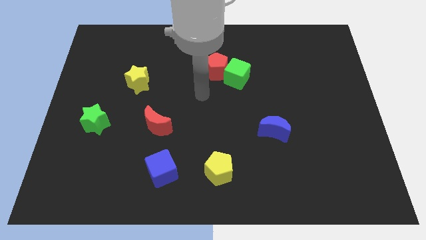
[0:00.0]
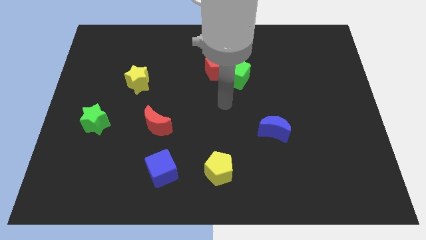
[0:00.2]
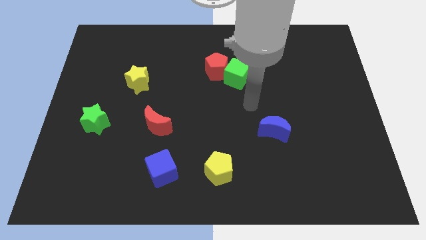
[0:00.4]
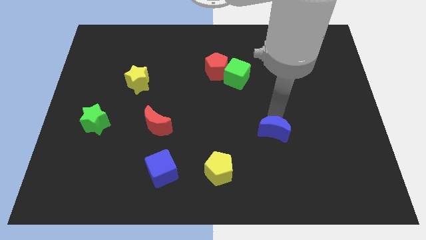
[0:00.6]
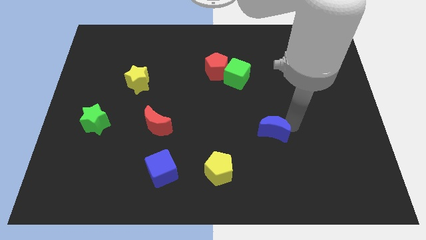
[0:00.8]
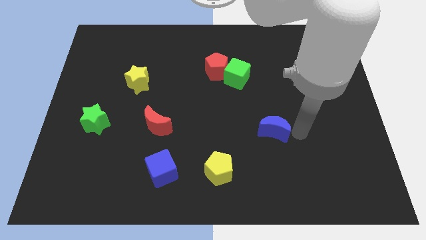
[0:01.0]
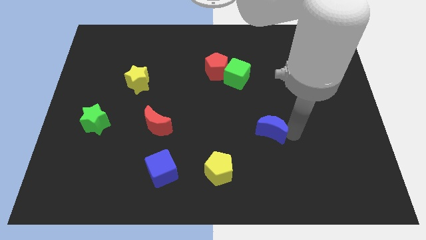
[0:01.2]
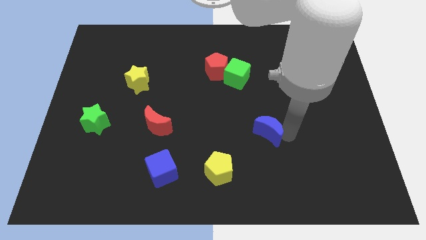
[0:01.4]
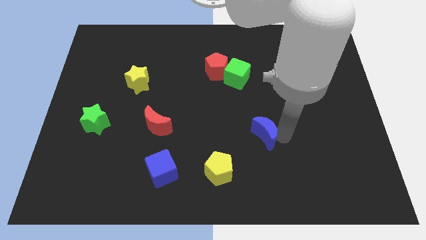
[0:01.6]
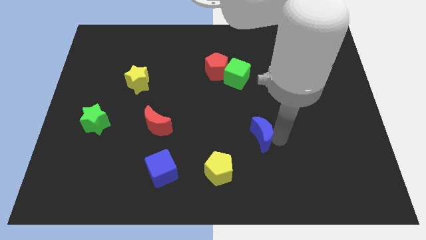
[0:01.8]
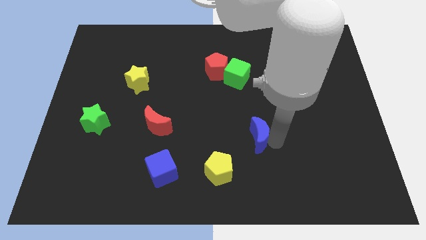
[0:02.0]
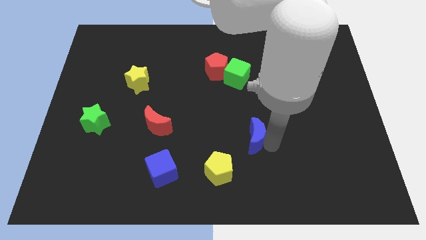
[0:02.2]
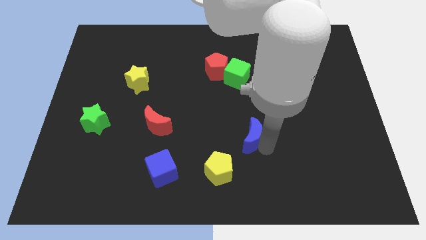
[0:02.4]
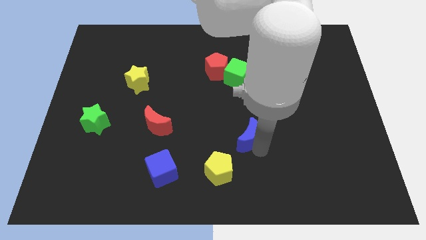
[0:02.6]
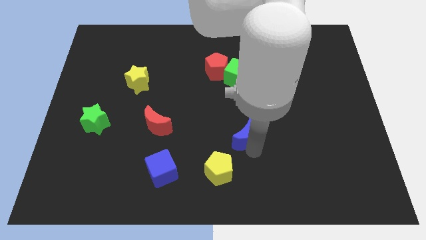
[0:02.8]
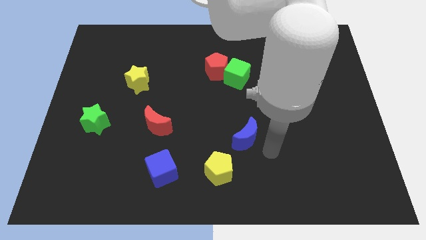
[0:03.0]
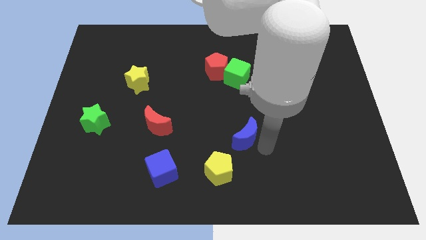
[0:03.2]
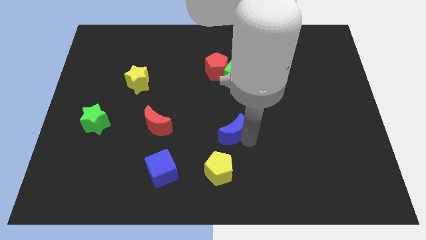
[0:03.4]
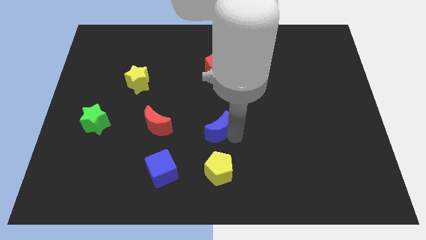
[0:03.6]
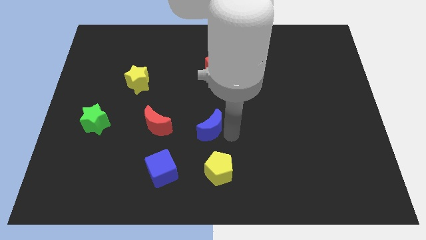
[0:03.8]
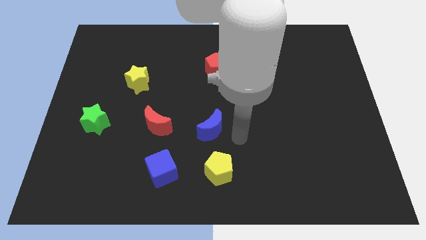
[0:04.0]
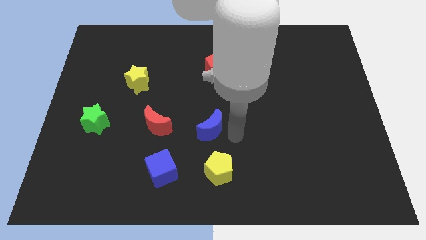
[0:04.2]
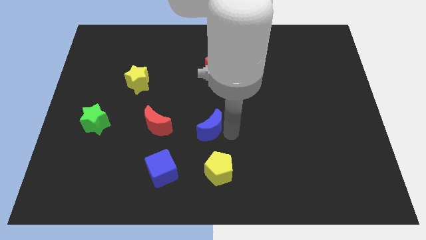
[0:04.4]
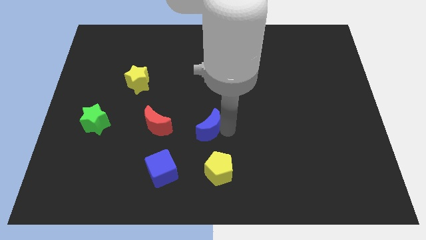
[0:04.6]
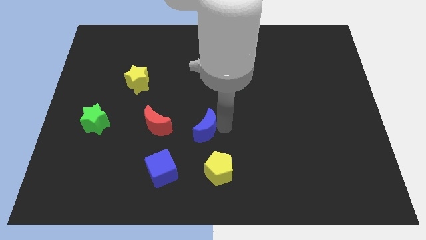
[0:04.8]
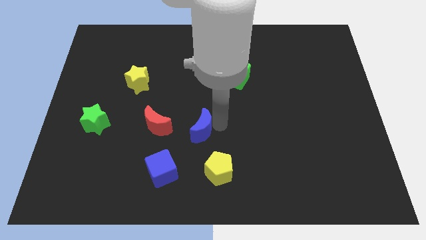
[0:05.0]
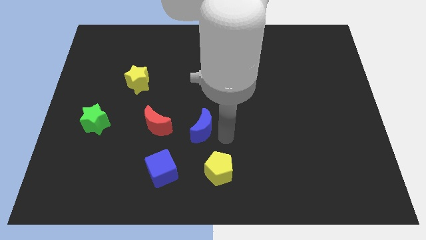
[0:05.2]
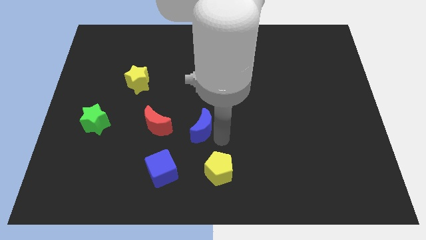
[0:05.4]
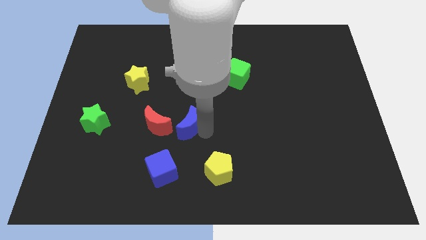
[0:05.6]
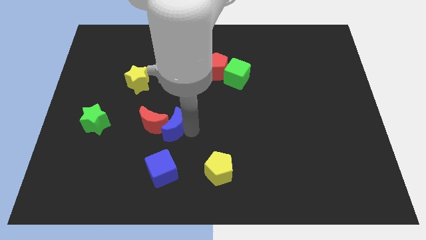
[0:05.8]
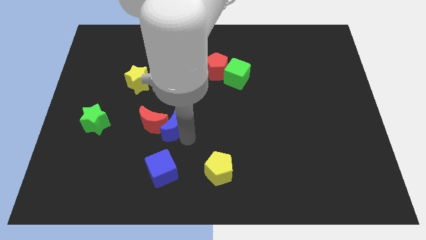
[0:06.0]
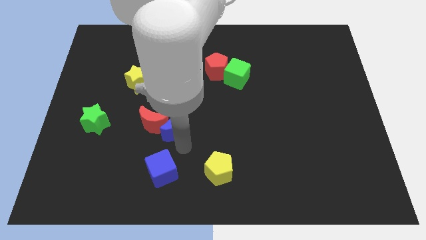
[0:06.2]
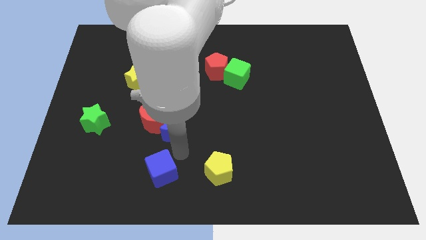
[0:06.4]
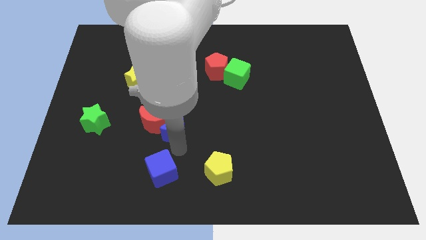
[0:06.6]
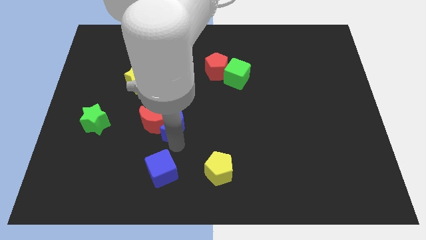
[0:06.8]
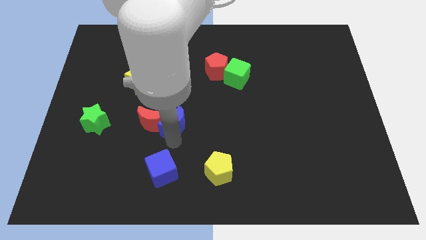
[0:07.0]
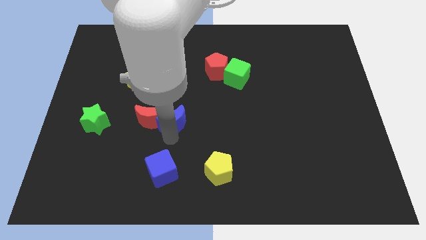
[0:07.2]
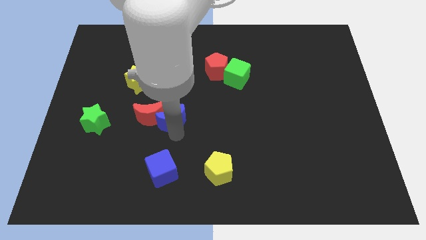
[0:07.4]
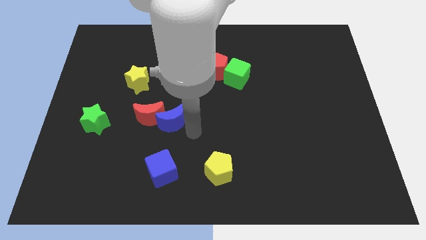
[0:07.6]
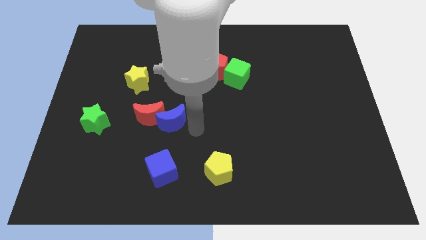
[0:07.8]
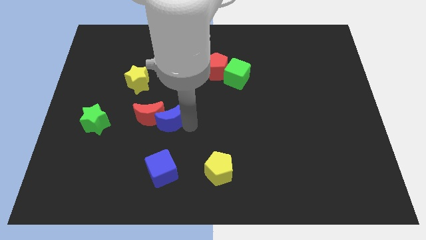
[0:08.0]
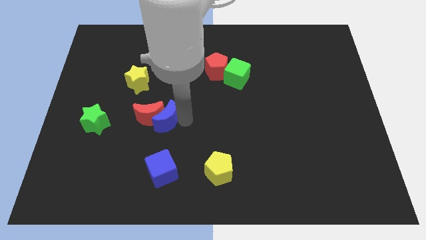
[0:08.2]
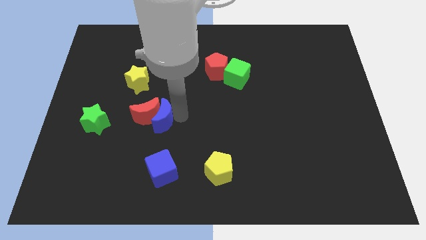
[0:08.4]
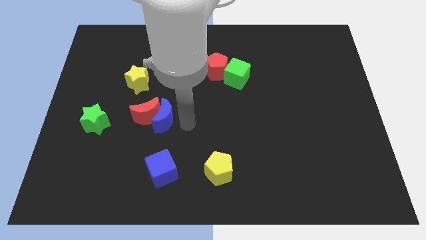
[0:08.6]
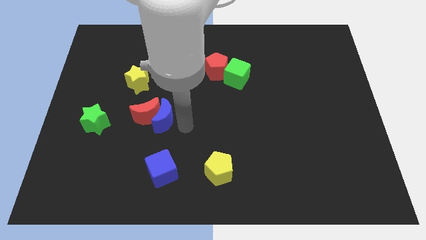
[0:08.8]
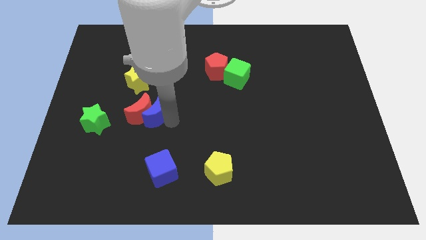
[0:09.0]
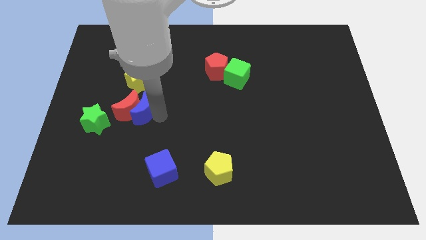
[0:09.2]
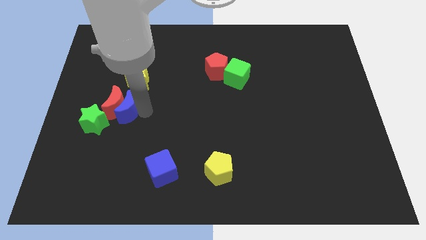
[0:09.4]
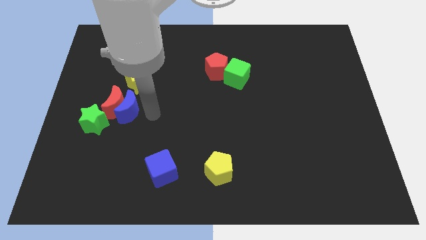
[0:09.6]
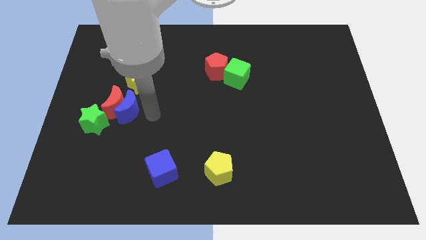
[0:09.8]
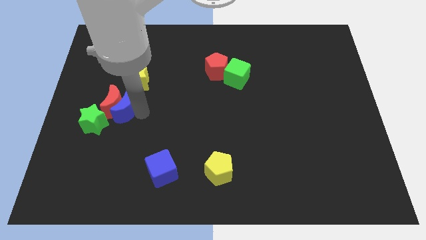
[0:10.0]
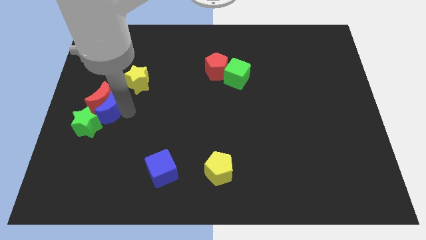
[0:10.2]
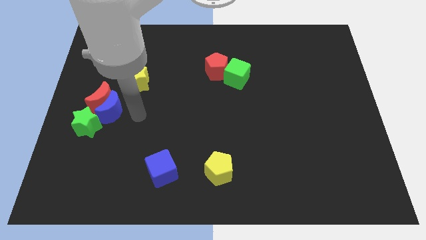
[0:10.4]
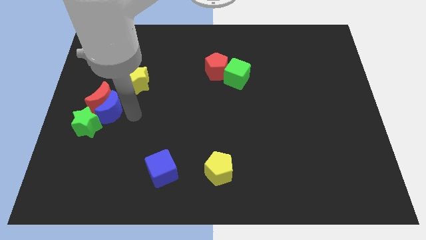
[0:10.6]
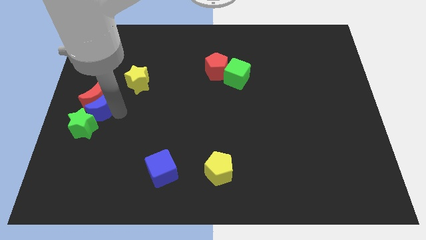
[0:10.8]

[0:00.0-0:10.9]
move the blue moon to the left side

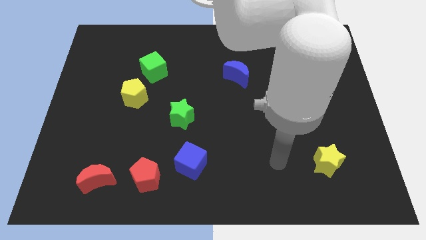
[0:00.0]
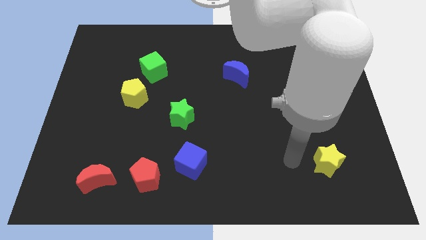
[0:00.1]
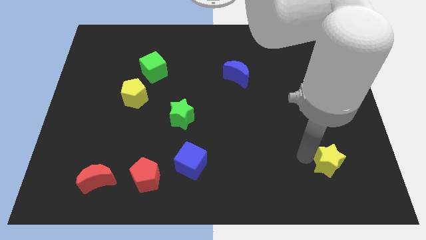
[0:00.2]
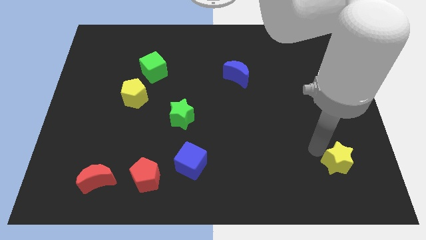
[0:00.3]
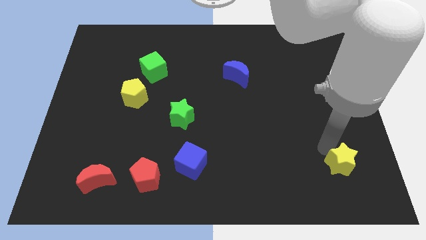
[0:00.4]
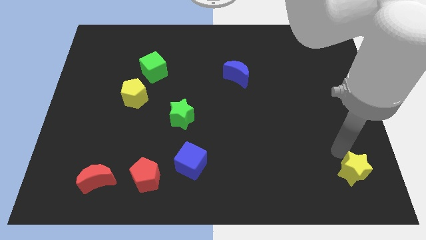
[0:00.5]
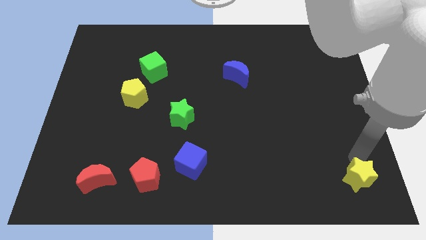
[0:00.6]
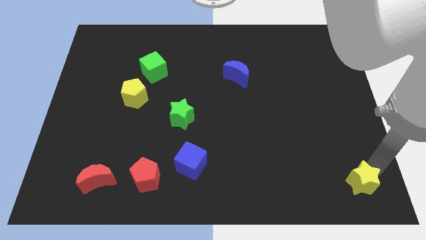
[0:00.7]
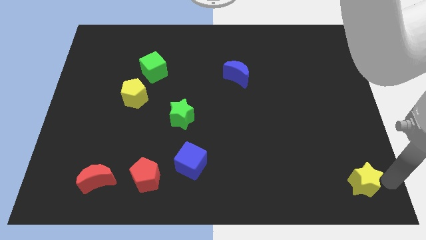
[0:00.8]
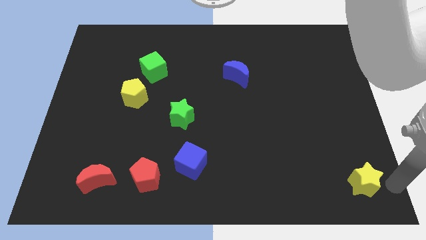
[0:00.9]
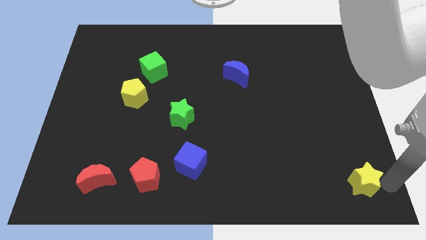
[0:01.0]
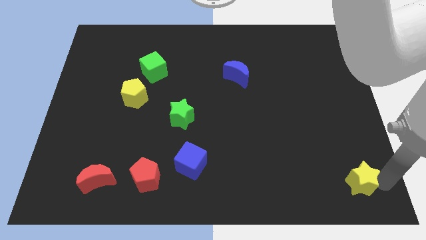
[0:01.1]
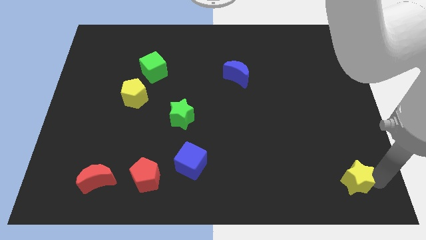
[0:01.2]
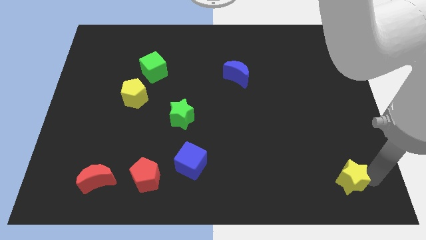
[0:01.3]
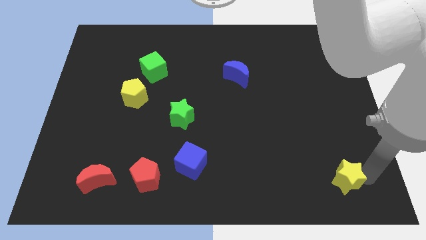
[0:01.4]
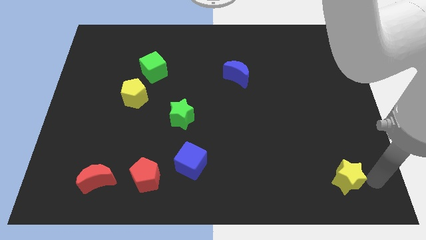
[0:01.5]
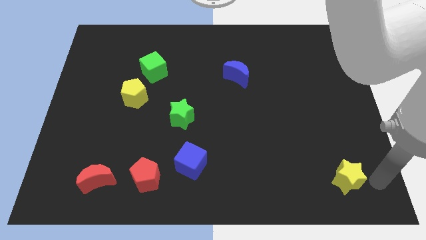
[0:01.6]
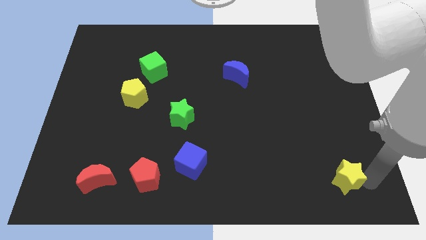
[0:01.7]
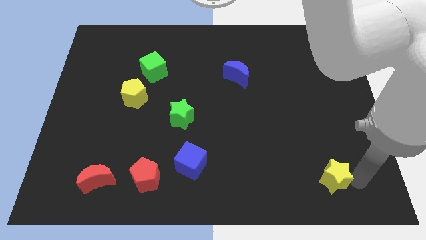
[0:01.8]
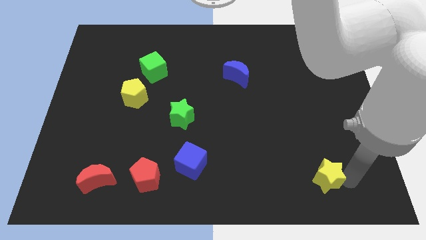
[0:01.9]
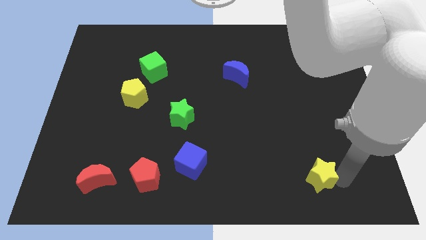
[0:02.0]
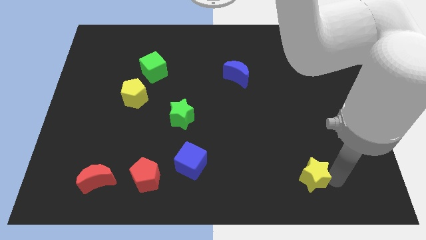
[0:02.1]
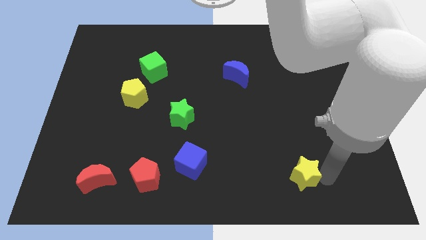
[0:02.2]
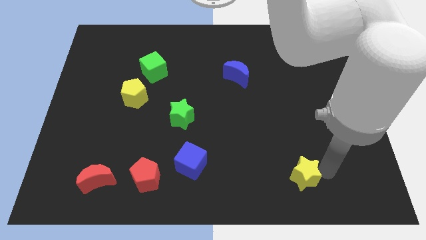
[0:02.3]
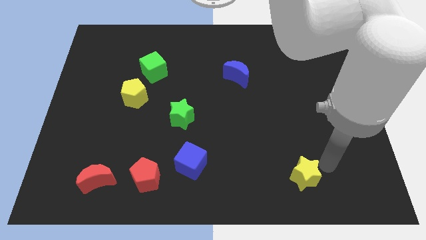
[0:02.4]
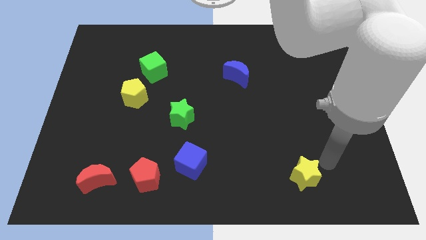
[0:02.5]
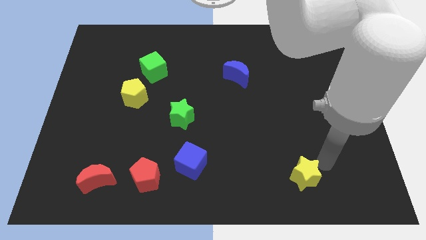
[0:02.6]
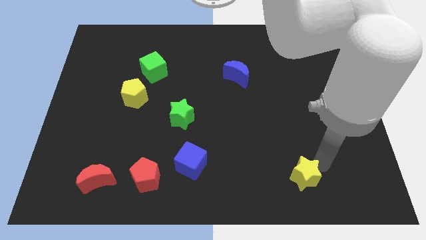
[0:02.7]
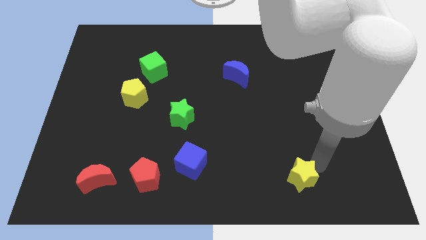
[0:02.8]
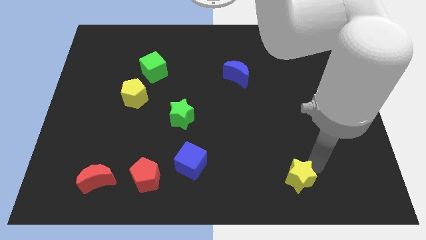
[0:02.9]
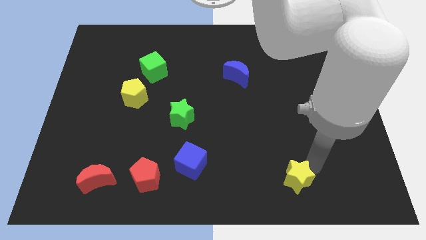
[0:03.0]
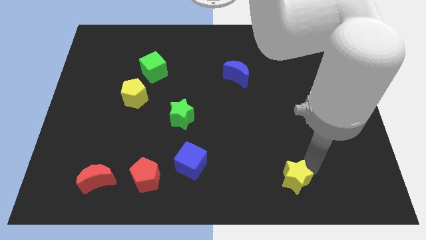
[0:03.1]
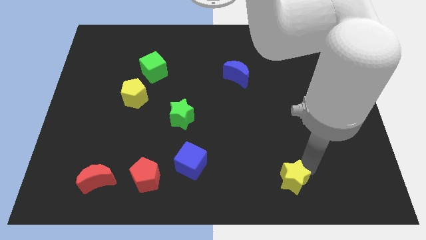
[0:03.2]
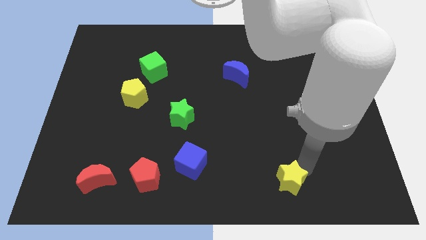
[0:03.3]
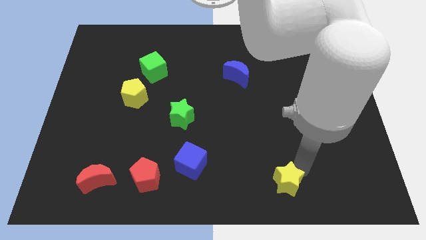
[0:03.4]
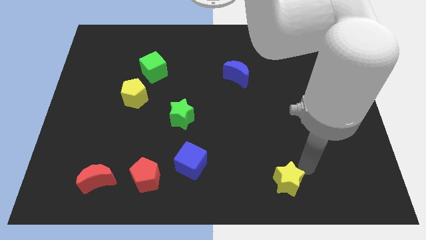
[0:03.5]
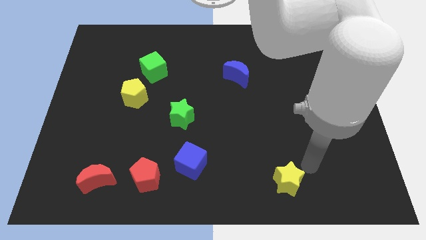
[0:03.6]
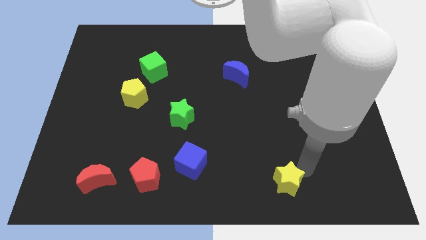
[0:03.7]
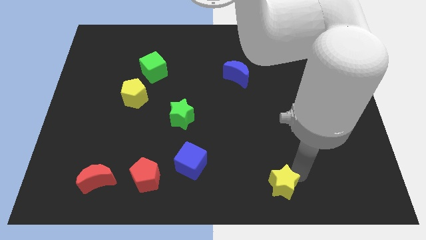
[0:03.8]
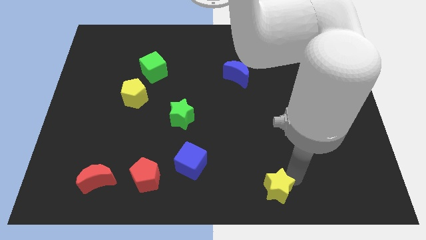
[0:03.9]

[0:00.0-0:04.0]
move the yellow star to the bottom
